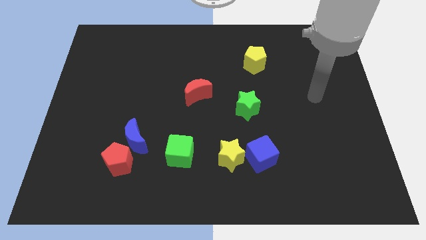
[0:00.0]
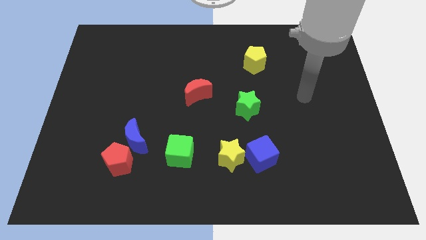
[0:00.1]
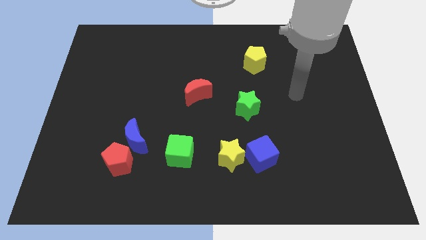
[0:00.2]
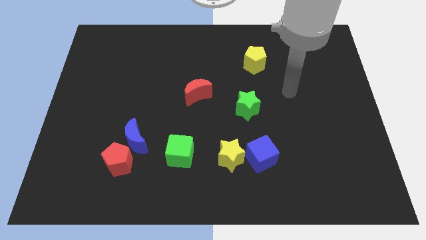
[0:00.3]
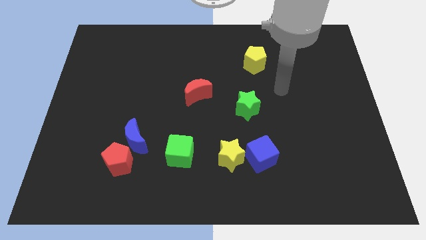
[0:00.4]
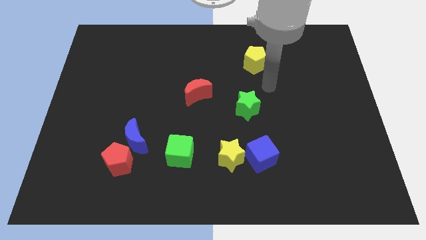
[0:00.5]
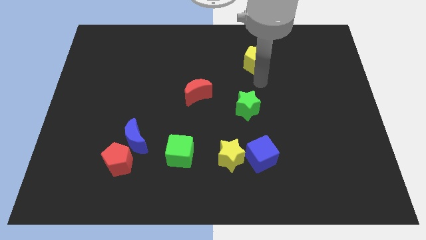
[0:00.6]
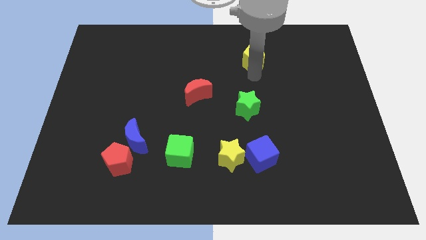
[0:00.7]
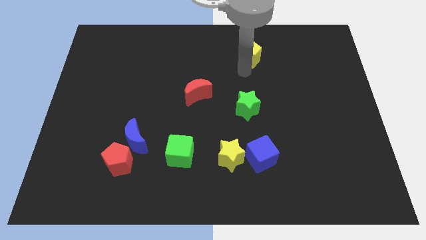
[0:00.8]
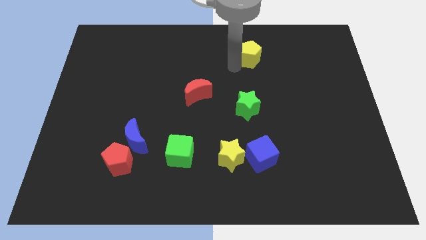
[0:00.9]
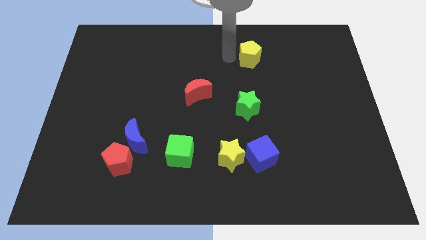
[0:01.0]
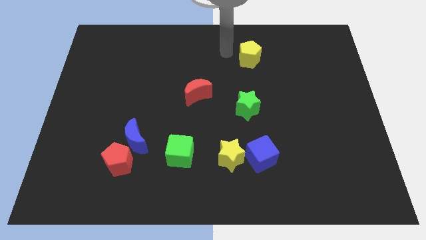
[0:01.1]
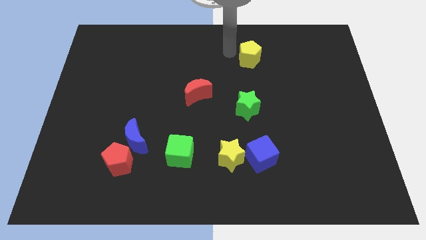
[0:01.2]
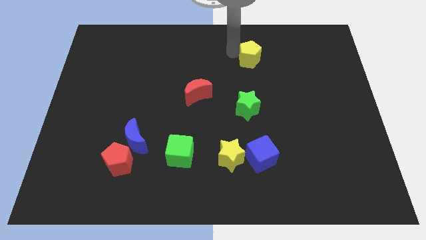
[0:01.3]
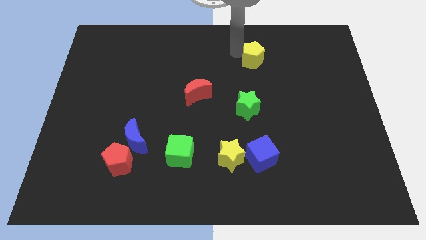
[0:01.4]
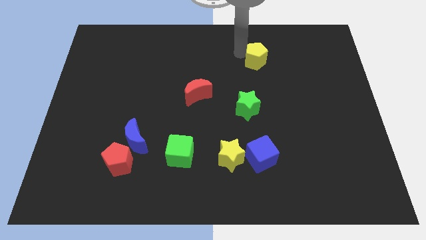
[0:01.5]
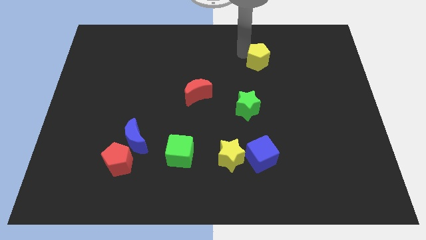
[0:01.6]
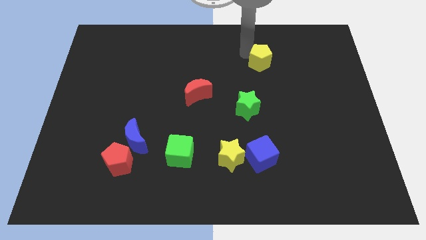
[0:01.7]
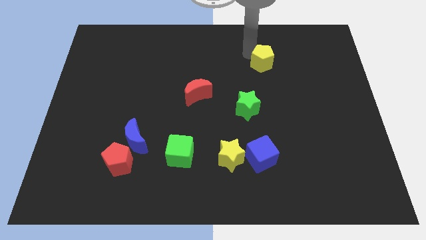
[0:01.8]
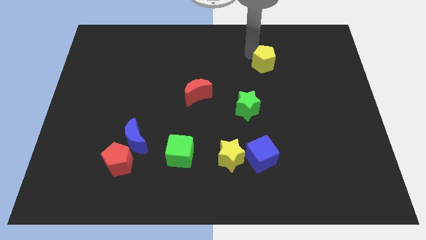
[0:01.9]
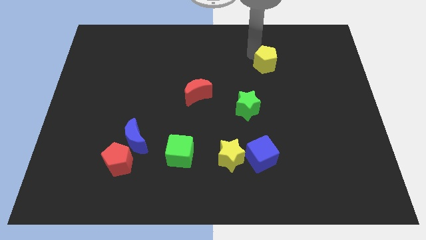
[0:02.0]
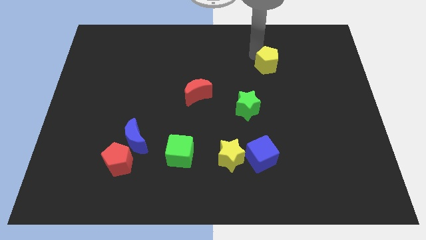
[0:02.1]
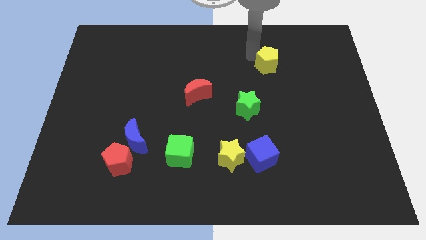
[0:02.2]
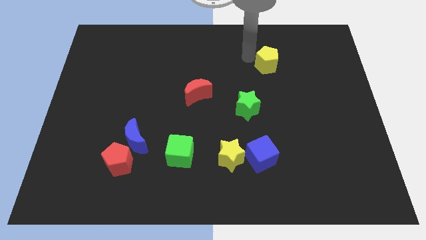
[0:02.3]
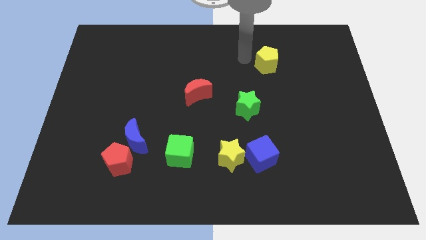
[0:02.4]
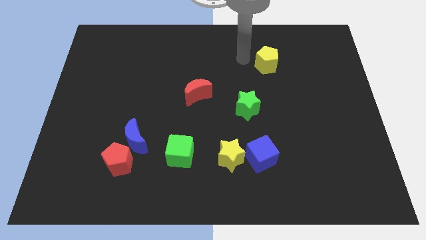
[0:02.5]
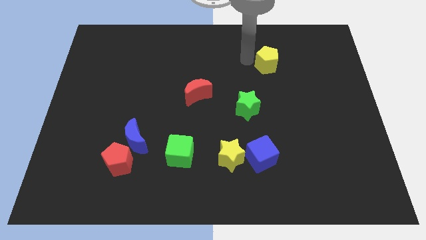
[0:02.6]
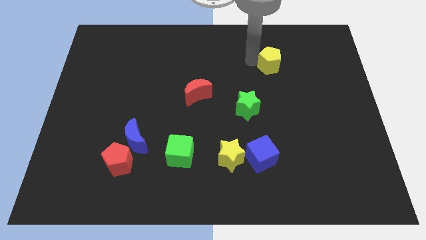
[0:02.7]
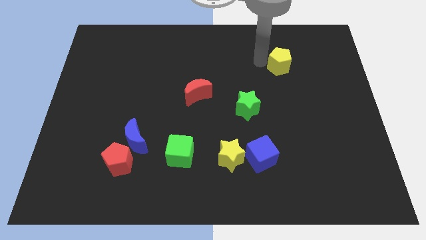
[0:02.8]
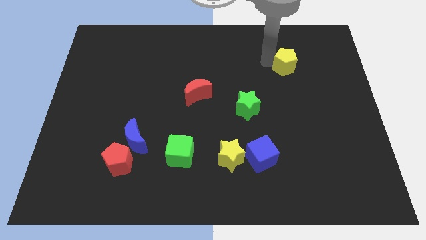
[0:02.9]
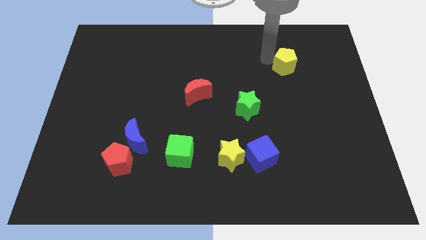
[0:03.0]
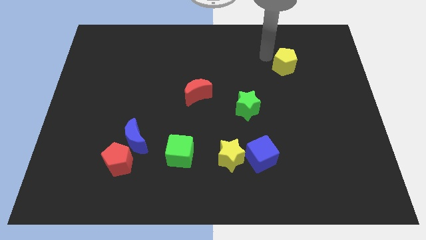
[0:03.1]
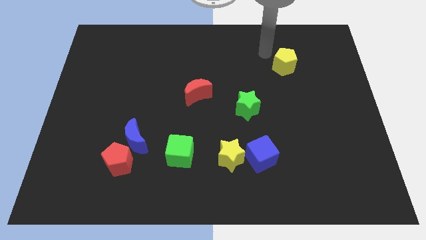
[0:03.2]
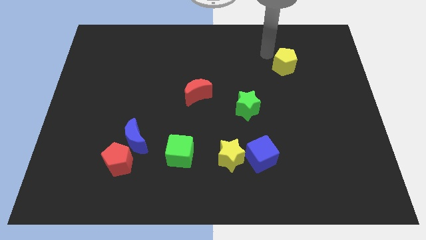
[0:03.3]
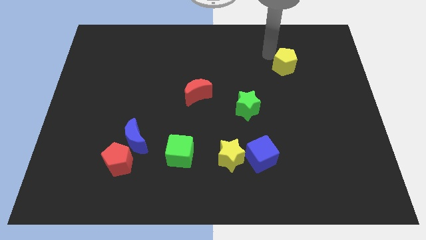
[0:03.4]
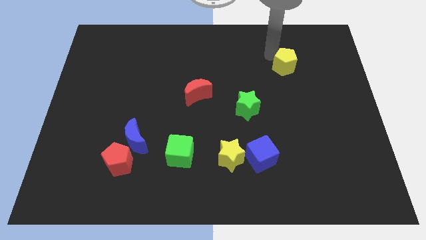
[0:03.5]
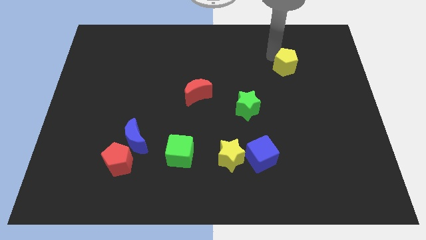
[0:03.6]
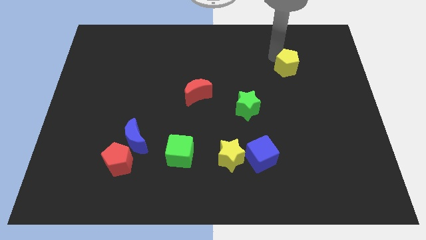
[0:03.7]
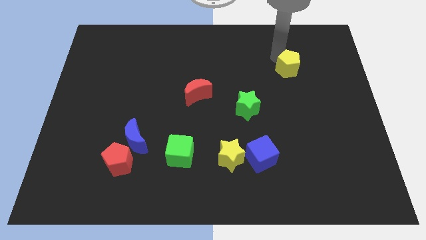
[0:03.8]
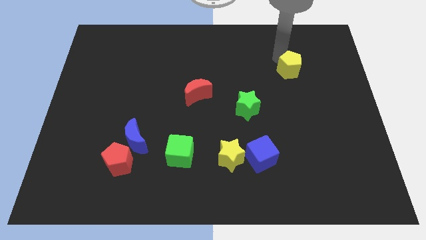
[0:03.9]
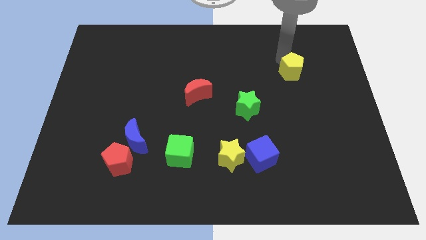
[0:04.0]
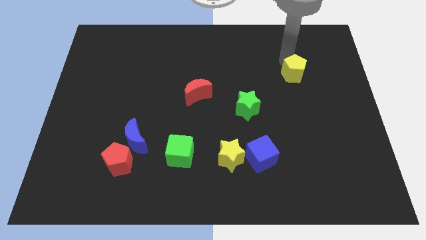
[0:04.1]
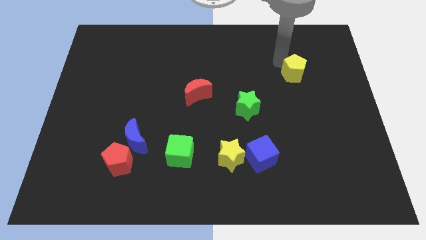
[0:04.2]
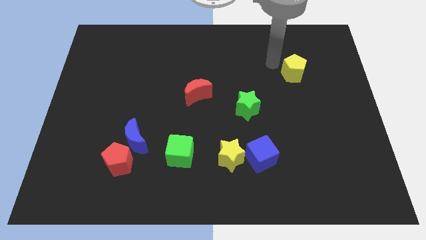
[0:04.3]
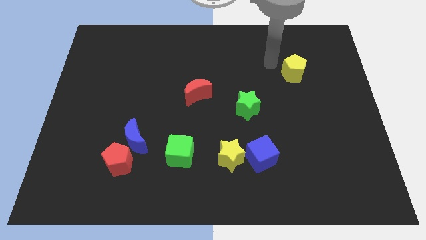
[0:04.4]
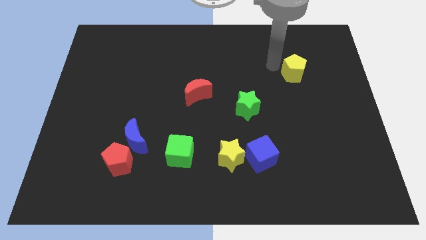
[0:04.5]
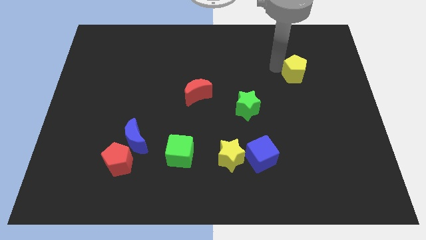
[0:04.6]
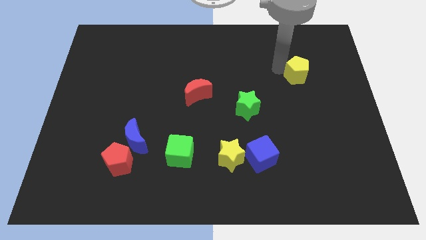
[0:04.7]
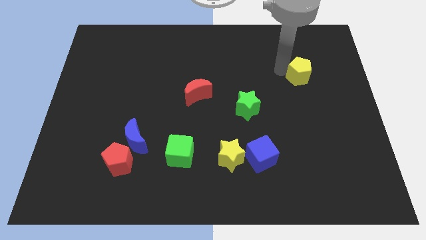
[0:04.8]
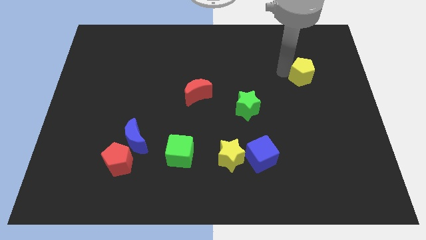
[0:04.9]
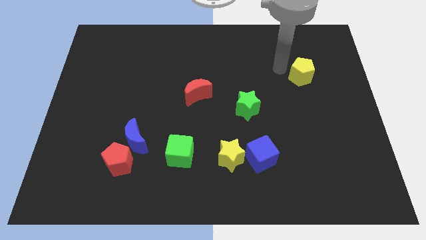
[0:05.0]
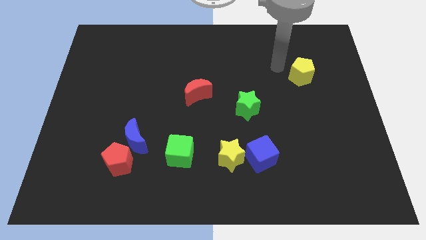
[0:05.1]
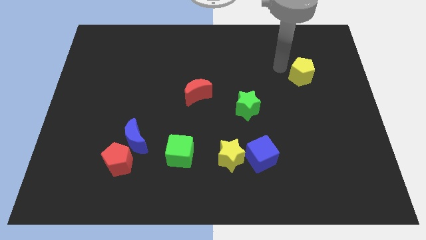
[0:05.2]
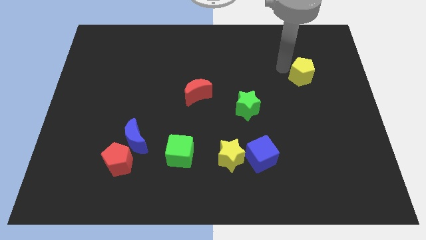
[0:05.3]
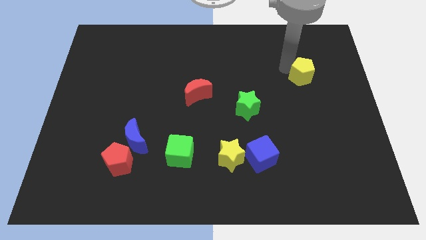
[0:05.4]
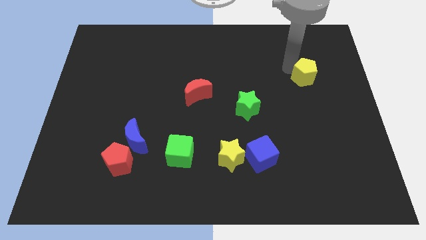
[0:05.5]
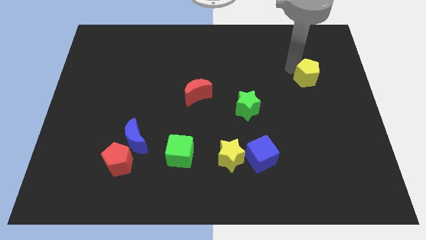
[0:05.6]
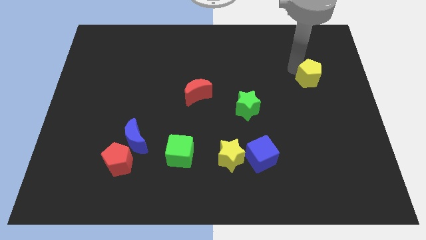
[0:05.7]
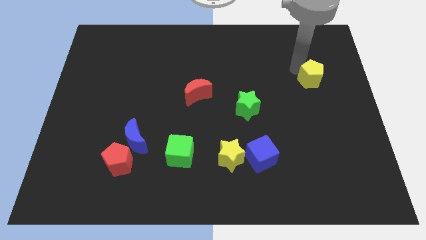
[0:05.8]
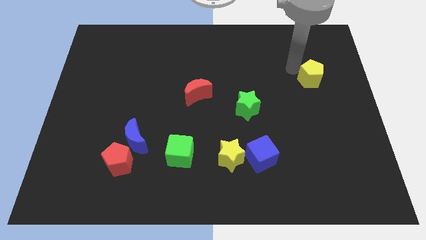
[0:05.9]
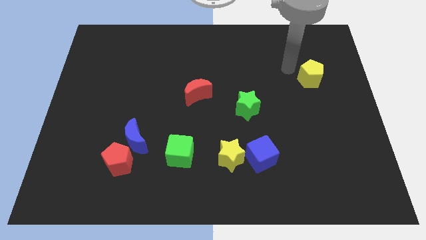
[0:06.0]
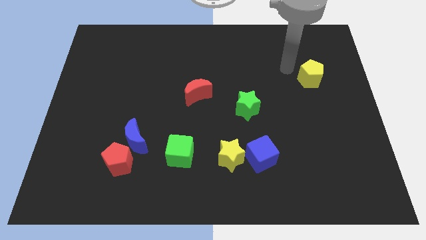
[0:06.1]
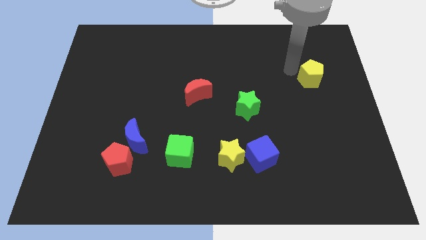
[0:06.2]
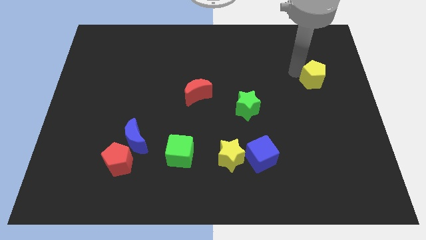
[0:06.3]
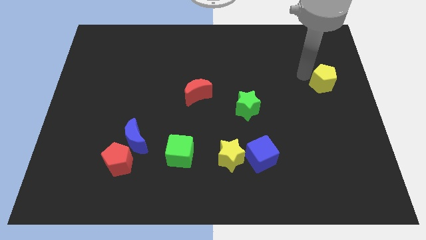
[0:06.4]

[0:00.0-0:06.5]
slide the yellow pentagon to the right side of the board
